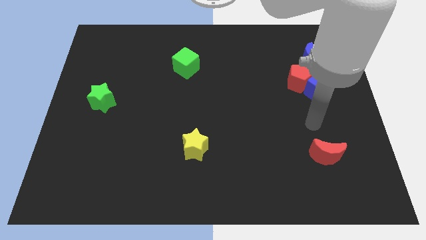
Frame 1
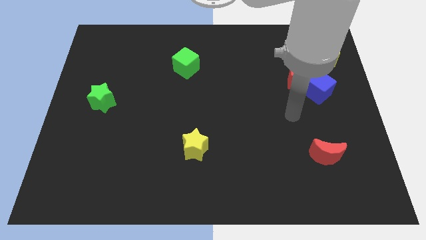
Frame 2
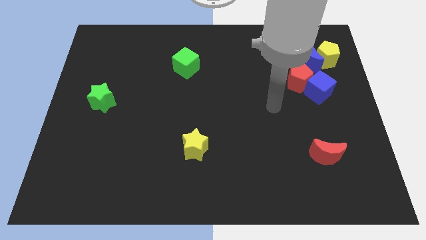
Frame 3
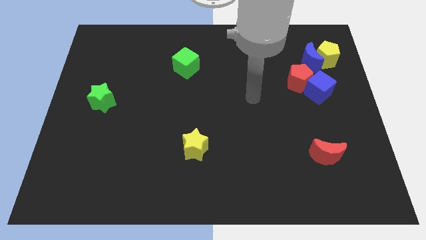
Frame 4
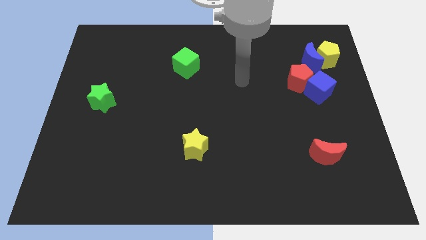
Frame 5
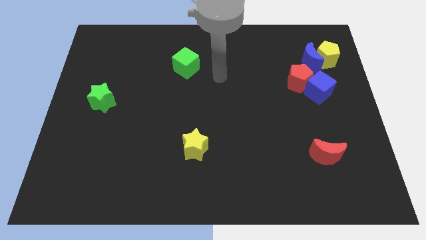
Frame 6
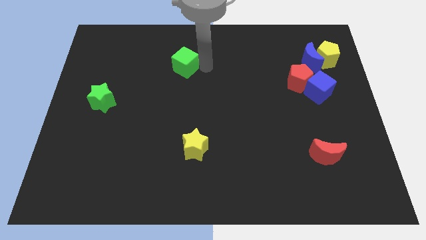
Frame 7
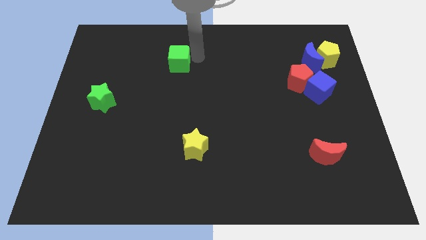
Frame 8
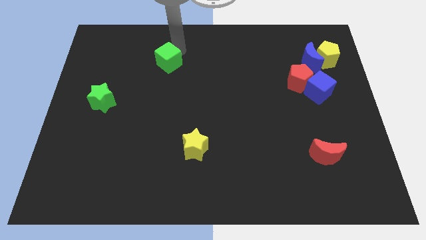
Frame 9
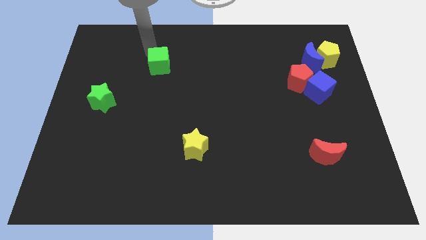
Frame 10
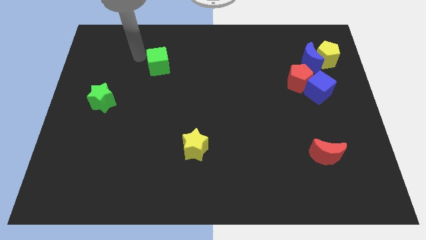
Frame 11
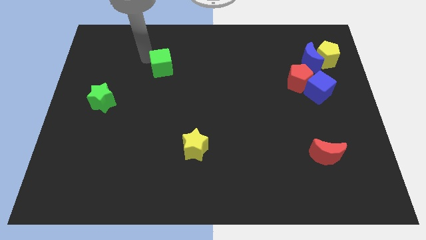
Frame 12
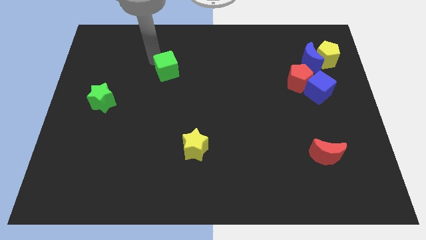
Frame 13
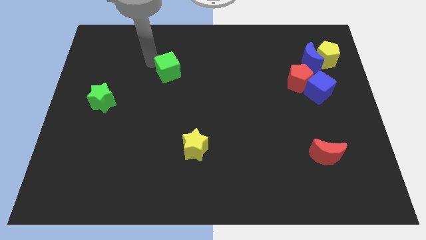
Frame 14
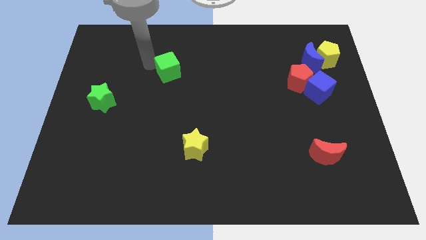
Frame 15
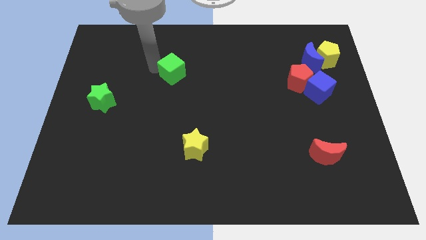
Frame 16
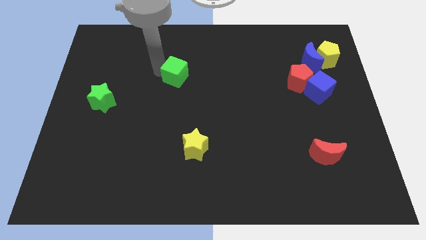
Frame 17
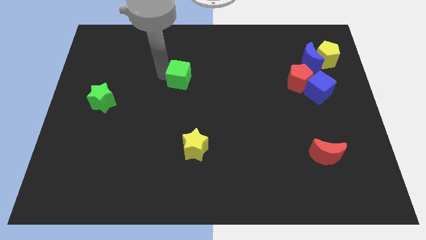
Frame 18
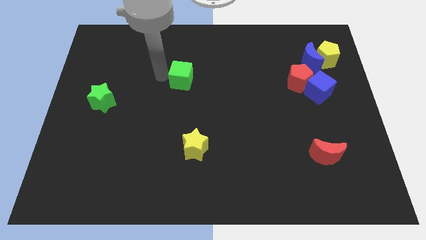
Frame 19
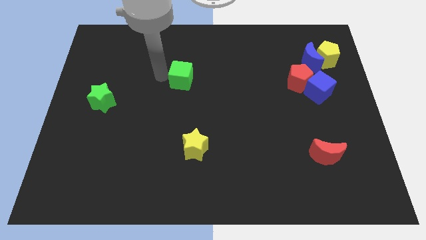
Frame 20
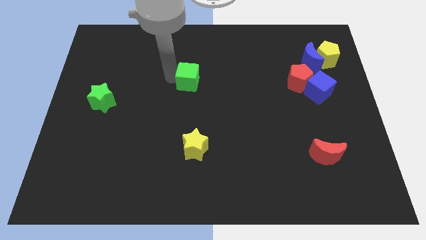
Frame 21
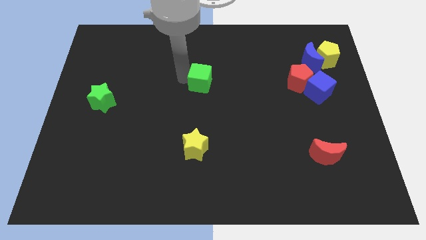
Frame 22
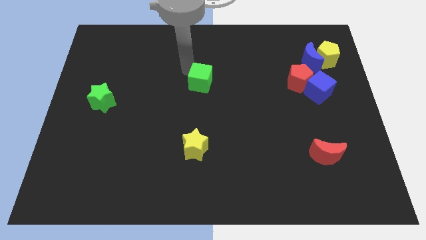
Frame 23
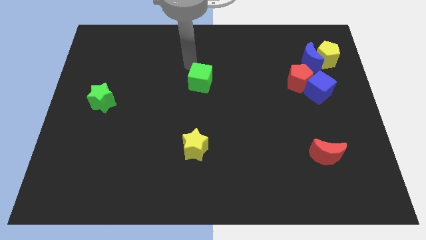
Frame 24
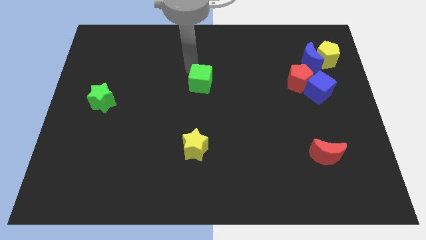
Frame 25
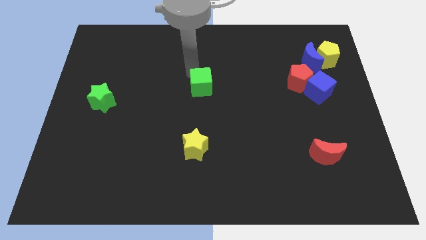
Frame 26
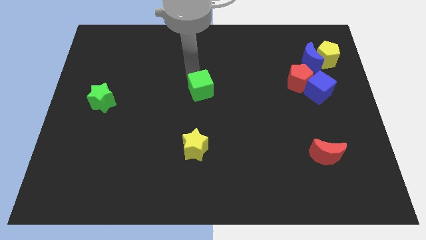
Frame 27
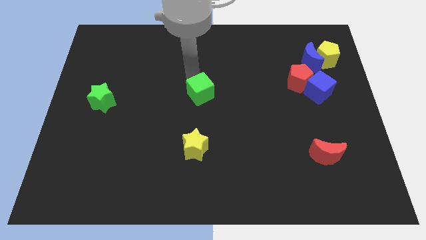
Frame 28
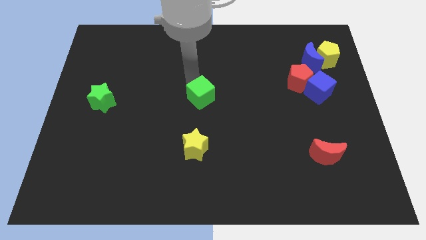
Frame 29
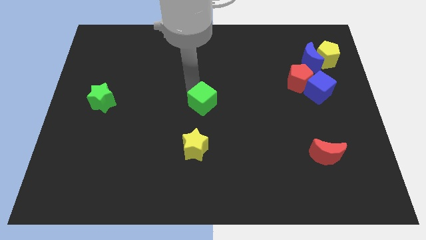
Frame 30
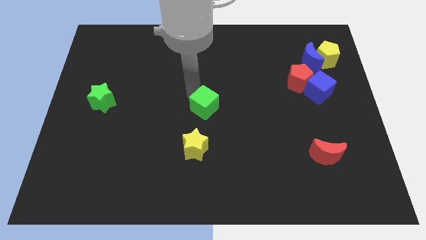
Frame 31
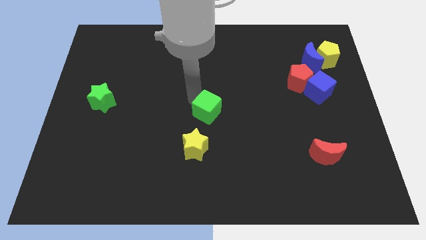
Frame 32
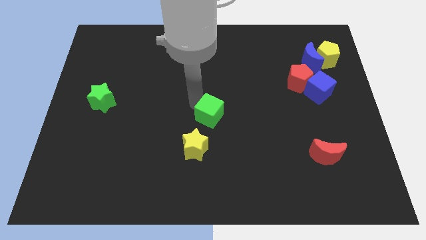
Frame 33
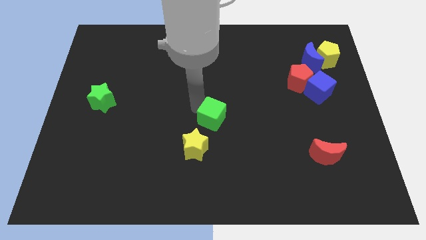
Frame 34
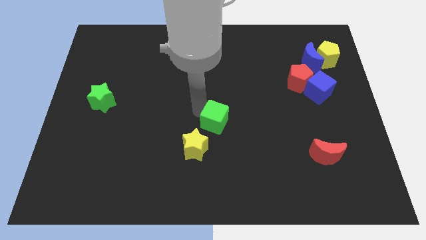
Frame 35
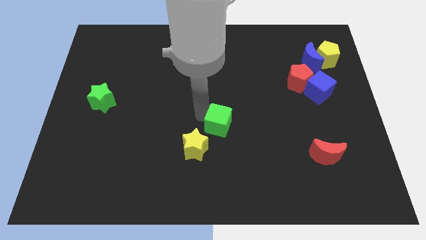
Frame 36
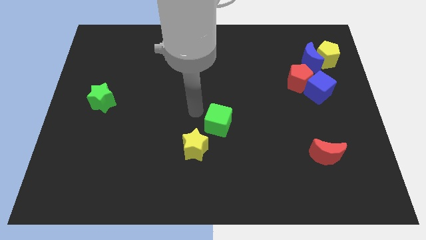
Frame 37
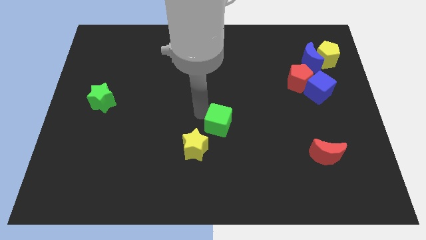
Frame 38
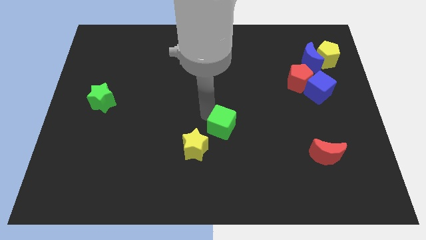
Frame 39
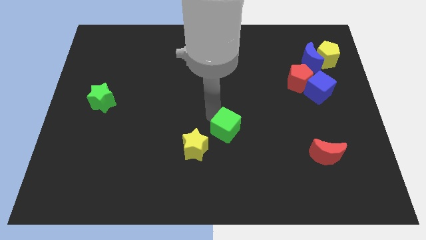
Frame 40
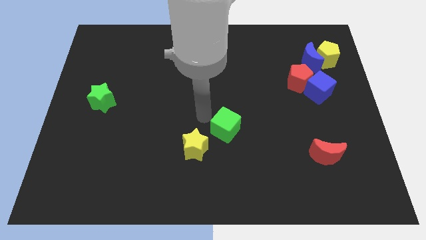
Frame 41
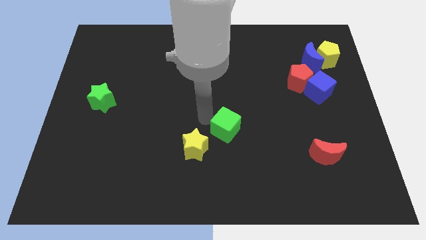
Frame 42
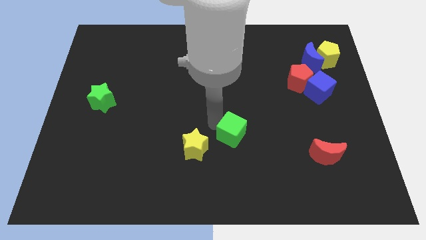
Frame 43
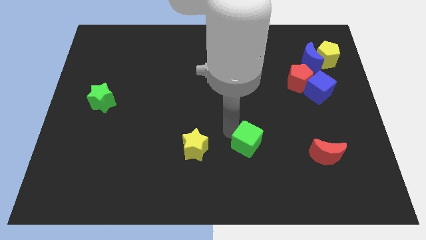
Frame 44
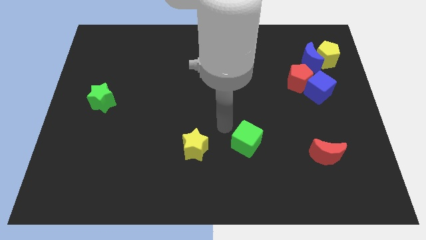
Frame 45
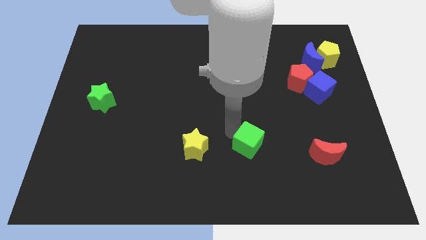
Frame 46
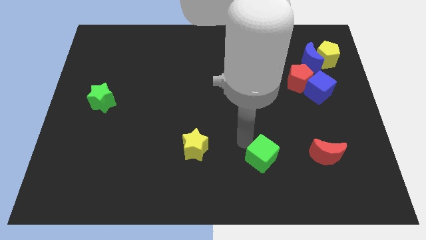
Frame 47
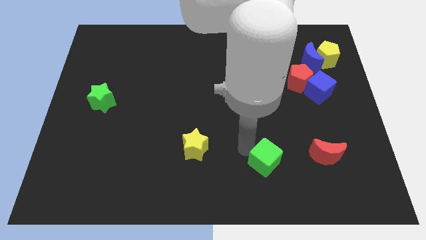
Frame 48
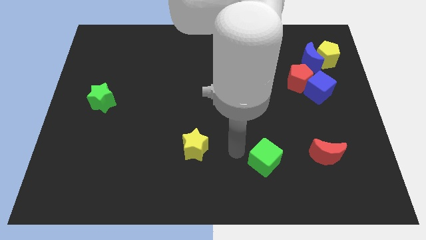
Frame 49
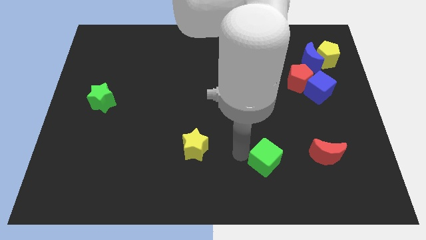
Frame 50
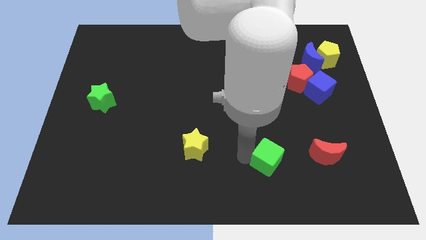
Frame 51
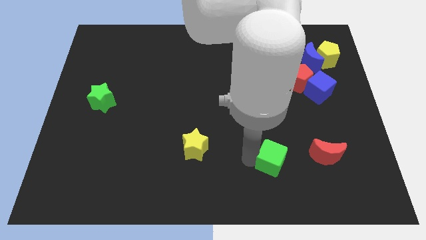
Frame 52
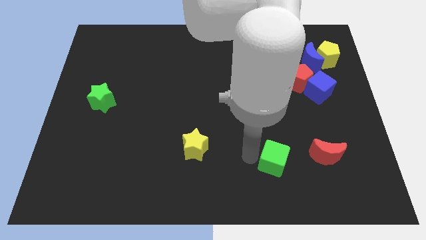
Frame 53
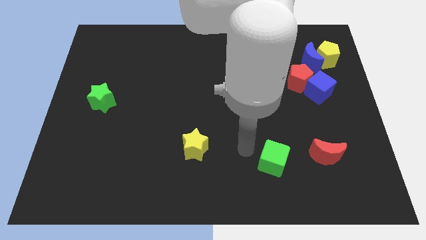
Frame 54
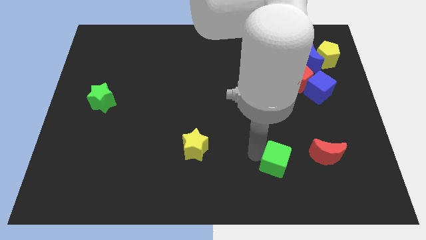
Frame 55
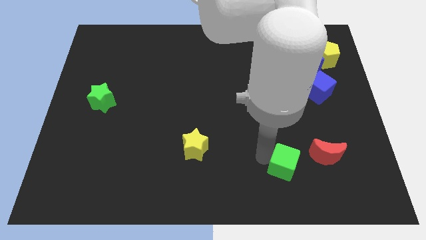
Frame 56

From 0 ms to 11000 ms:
push the green cube to the bottom left of the red moon
